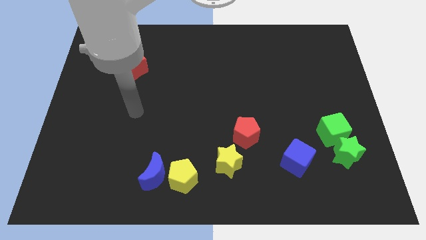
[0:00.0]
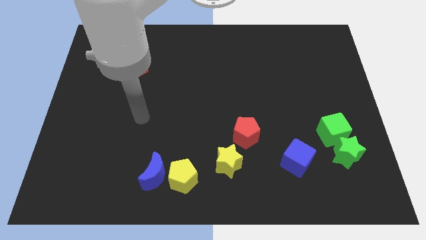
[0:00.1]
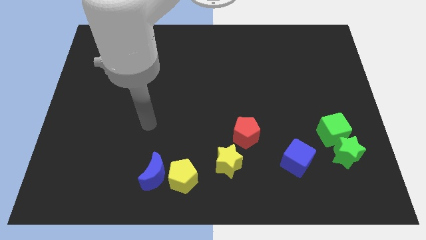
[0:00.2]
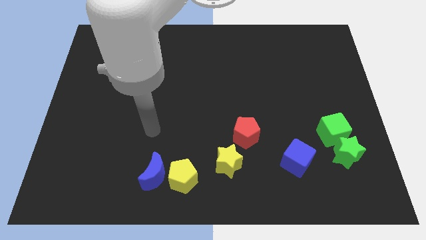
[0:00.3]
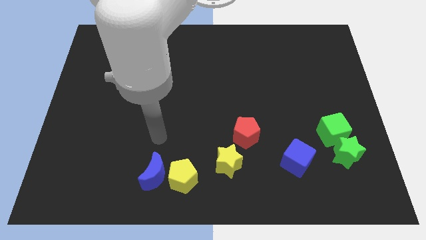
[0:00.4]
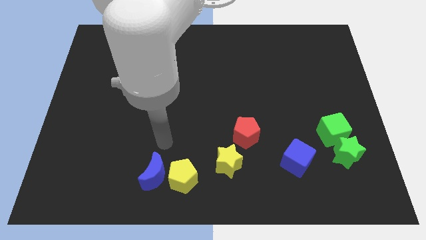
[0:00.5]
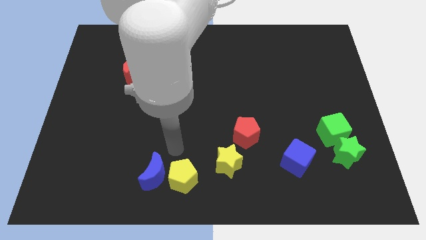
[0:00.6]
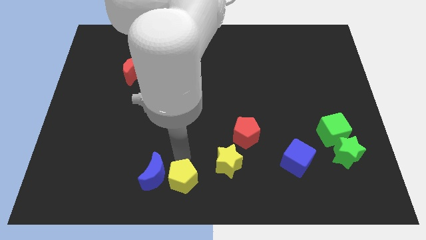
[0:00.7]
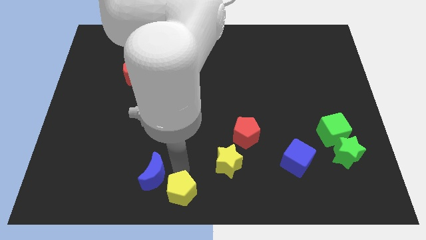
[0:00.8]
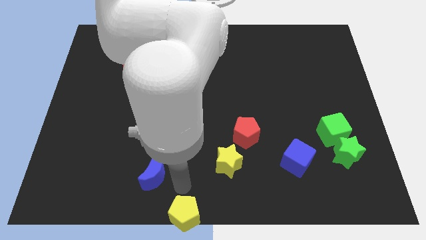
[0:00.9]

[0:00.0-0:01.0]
move the blue moon away from the yellow pentagon

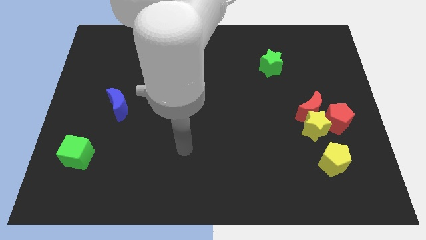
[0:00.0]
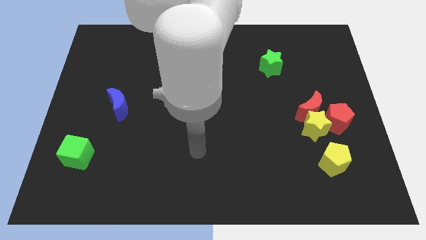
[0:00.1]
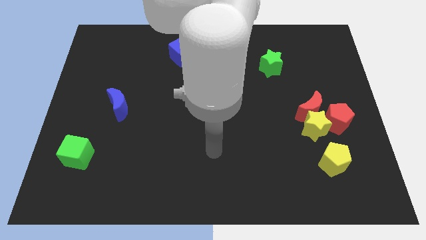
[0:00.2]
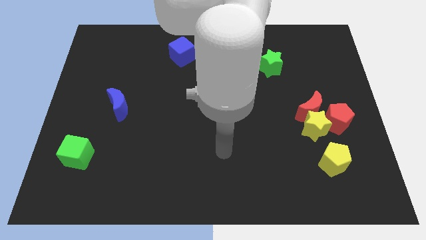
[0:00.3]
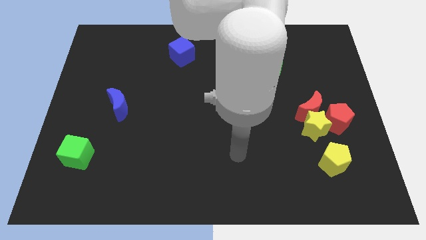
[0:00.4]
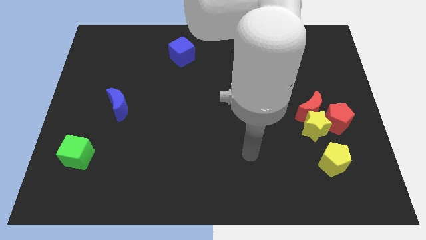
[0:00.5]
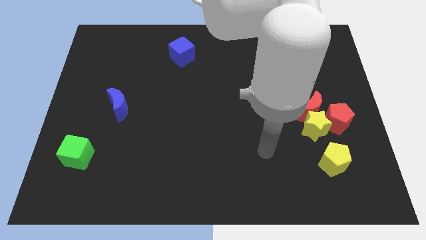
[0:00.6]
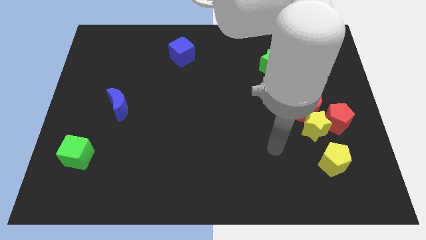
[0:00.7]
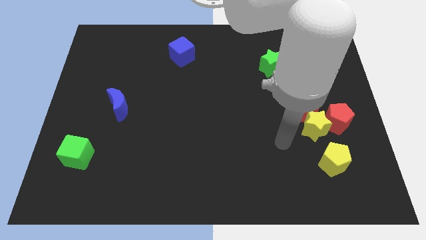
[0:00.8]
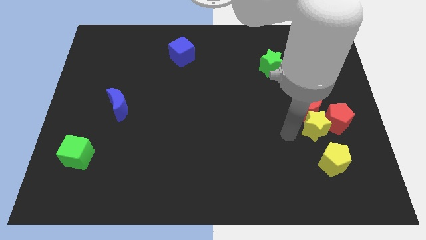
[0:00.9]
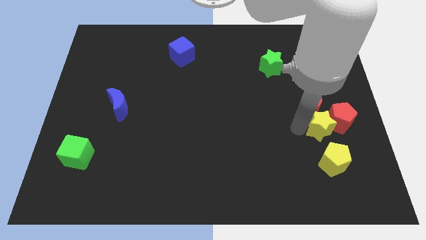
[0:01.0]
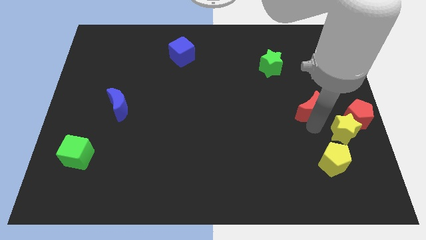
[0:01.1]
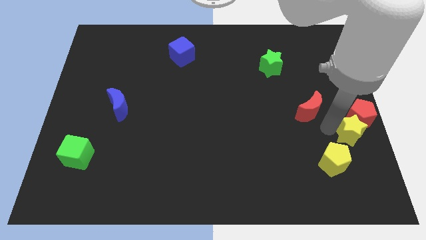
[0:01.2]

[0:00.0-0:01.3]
move the red moon away from the yellow star and red pentagon

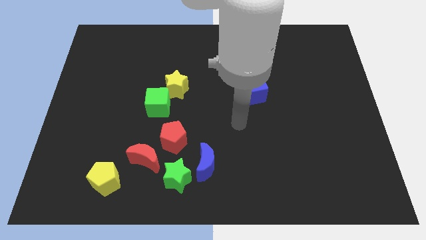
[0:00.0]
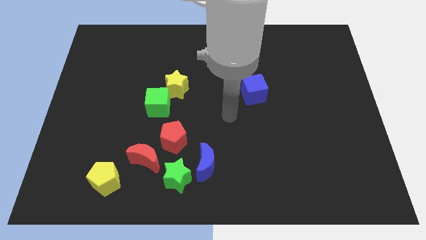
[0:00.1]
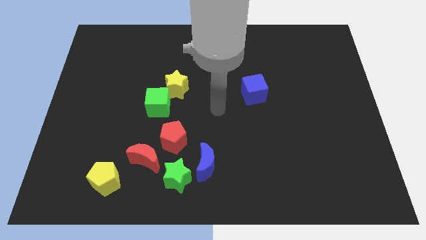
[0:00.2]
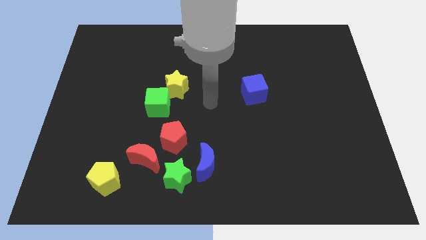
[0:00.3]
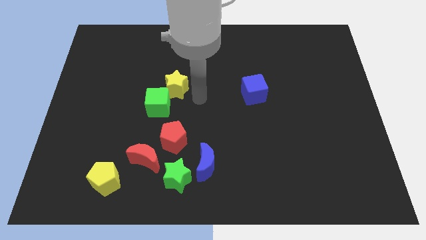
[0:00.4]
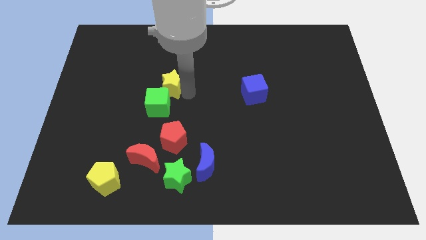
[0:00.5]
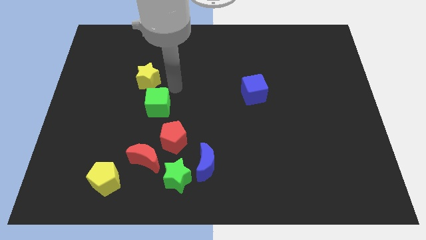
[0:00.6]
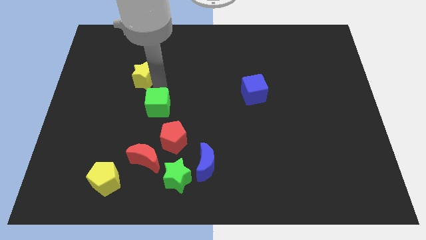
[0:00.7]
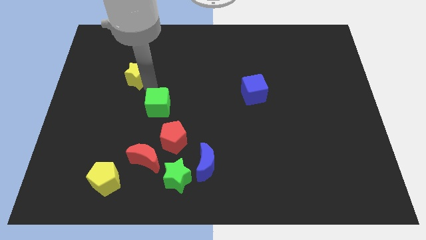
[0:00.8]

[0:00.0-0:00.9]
pull the green cube apart from the yellow star

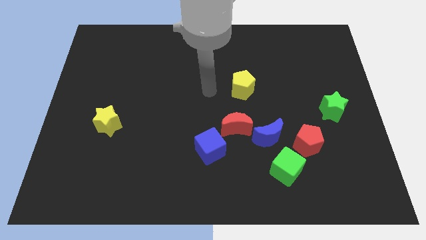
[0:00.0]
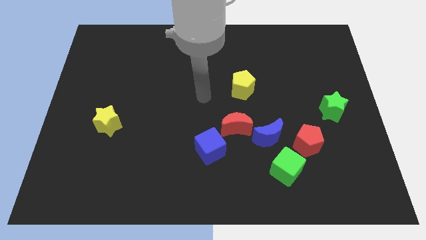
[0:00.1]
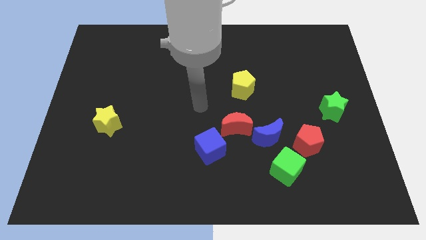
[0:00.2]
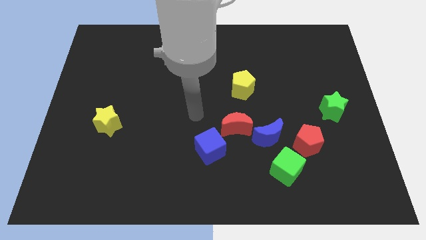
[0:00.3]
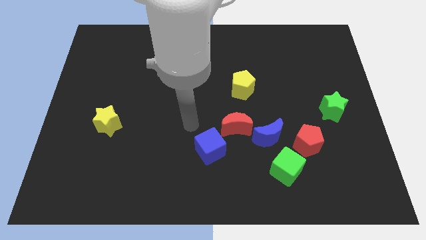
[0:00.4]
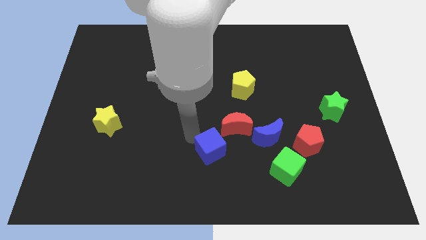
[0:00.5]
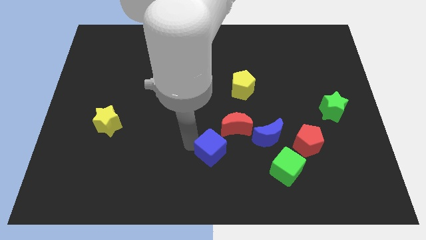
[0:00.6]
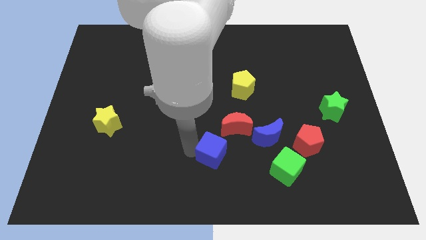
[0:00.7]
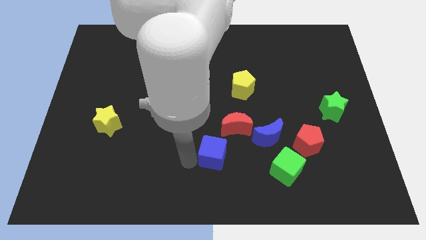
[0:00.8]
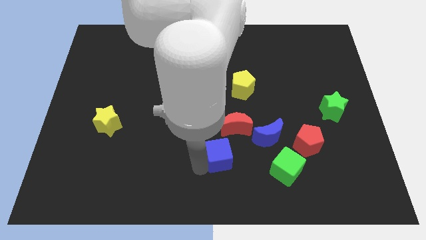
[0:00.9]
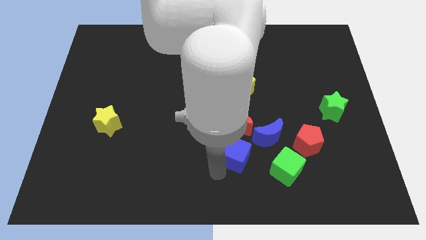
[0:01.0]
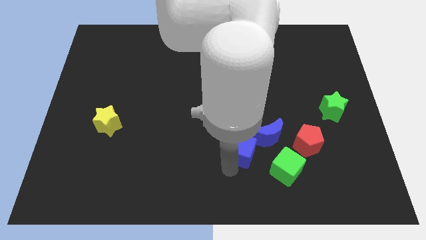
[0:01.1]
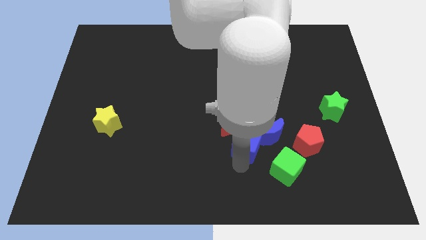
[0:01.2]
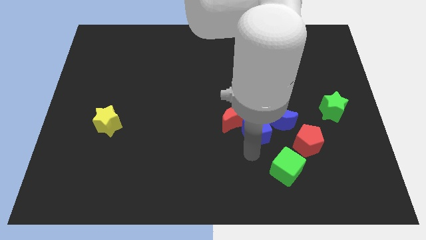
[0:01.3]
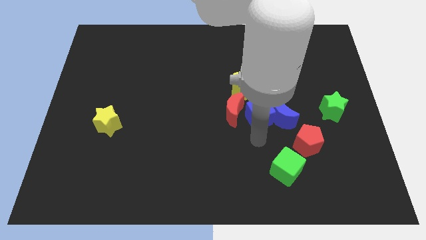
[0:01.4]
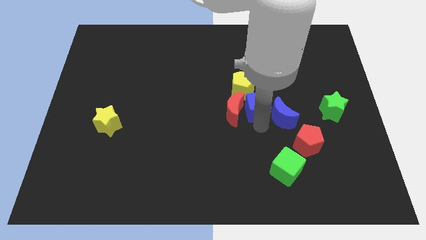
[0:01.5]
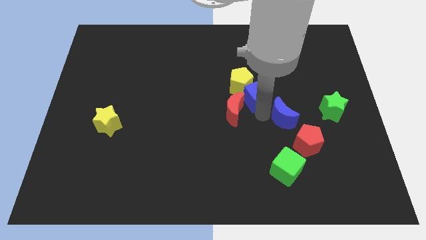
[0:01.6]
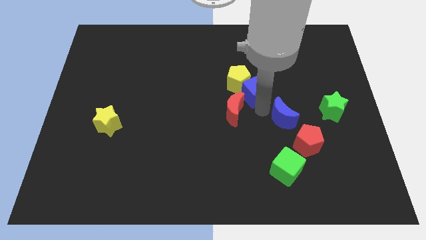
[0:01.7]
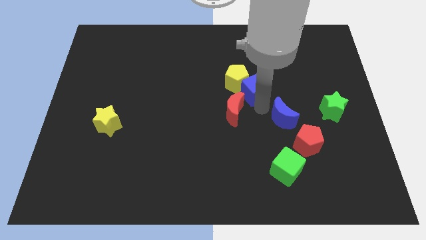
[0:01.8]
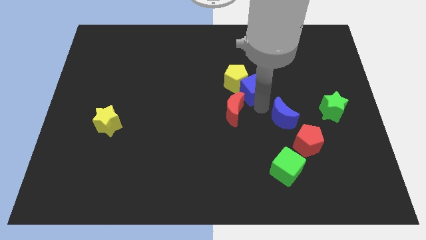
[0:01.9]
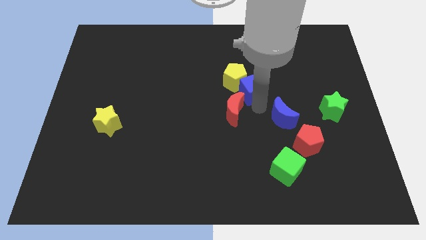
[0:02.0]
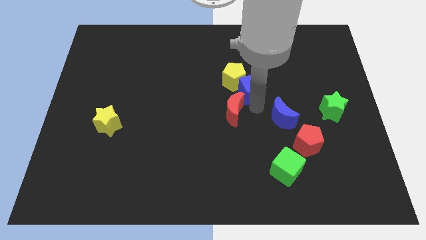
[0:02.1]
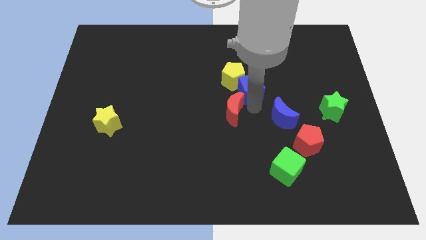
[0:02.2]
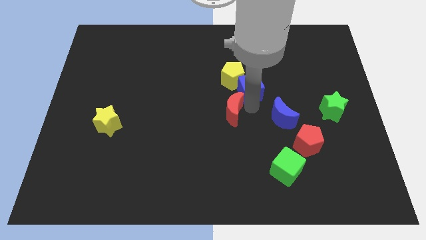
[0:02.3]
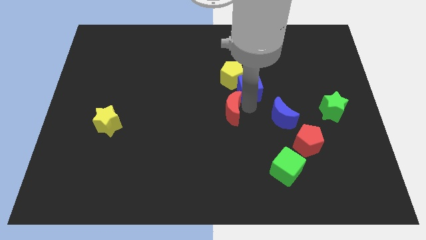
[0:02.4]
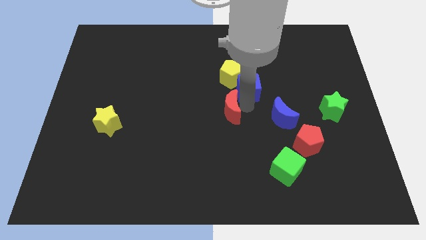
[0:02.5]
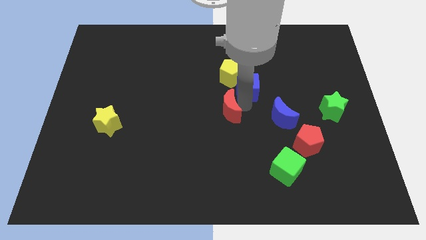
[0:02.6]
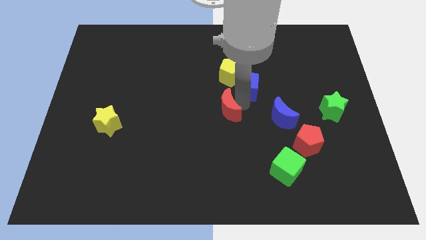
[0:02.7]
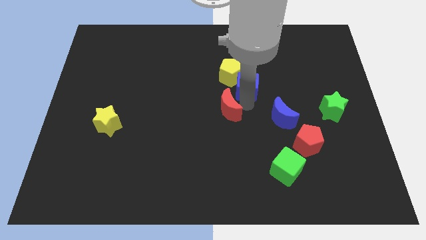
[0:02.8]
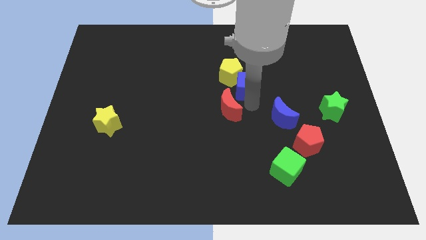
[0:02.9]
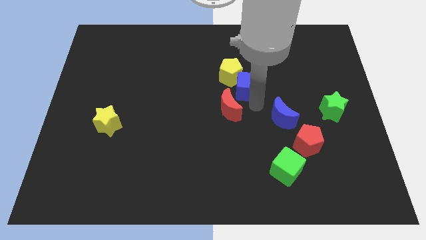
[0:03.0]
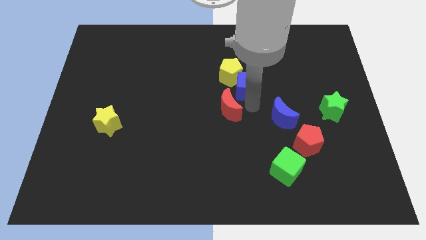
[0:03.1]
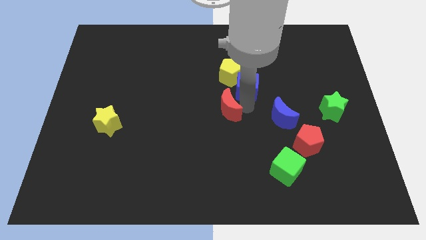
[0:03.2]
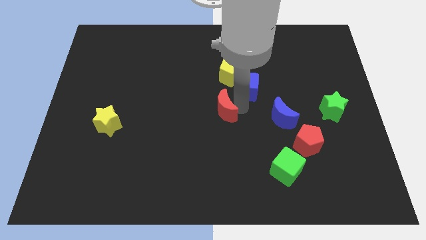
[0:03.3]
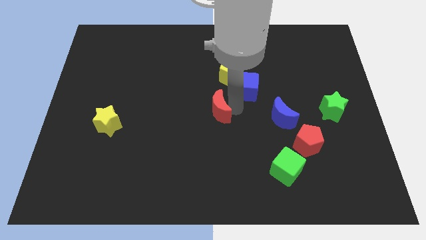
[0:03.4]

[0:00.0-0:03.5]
move the red moon away from the blue moon and blue cube

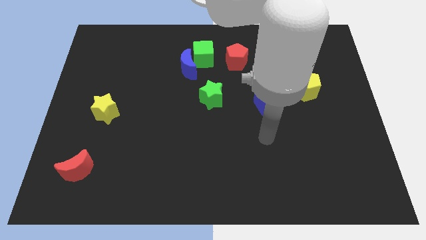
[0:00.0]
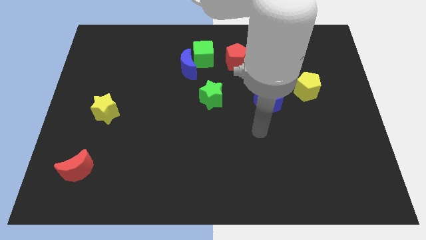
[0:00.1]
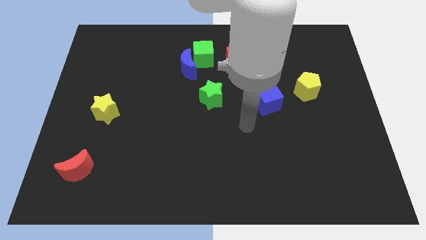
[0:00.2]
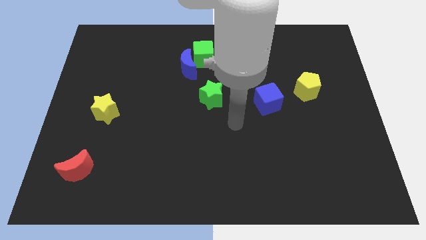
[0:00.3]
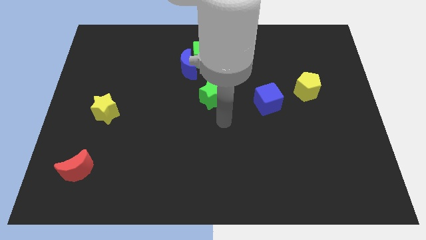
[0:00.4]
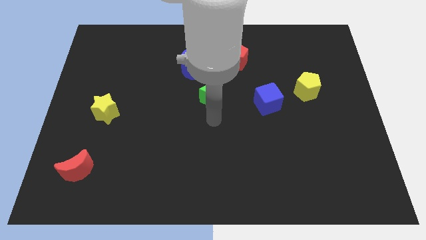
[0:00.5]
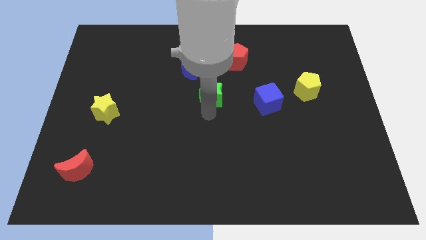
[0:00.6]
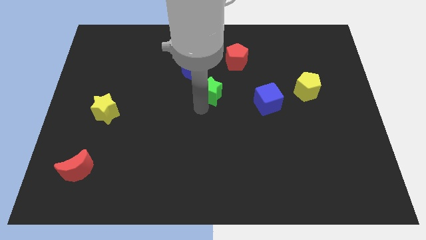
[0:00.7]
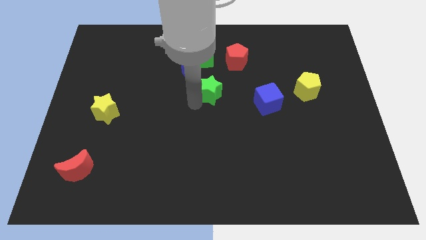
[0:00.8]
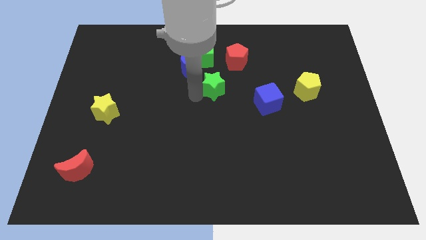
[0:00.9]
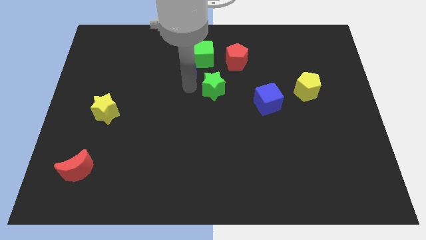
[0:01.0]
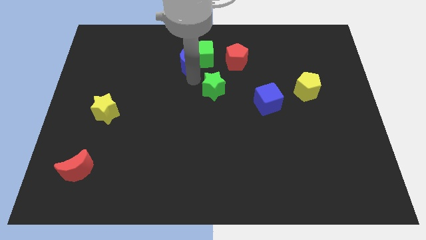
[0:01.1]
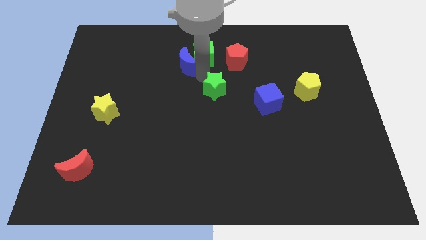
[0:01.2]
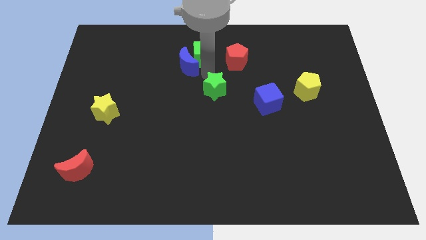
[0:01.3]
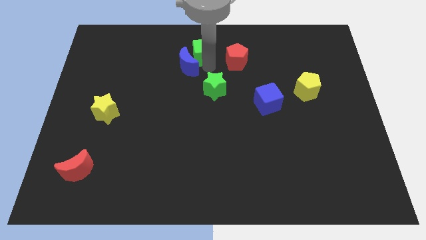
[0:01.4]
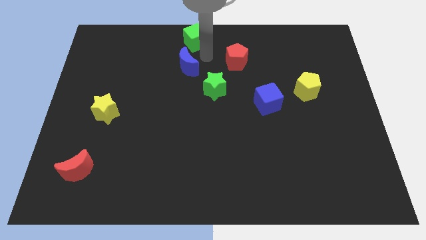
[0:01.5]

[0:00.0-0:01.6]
move the blue moon away from the green cube

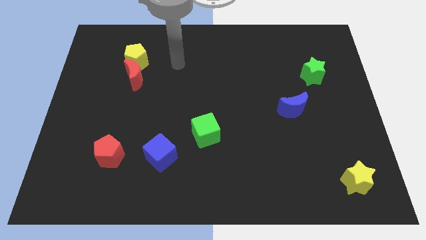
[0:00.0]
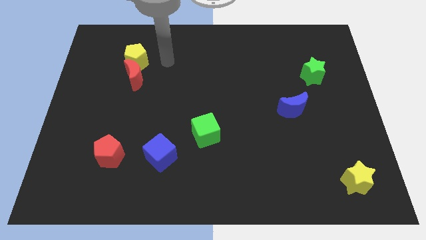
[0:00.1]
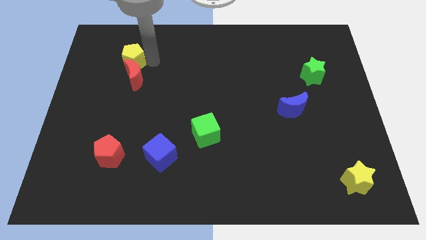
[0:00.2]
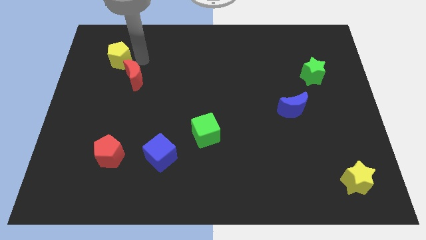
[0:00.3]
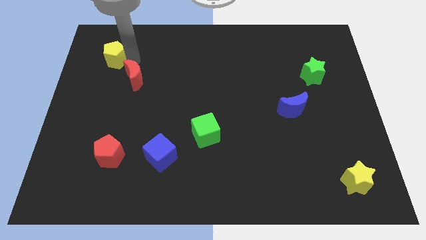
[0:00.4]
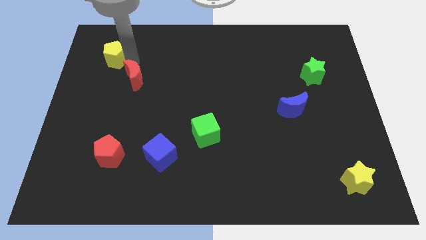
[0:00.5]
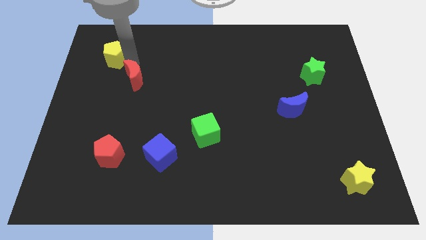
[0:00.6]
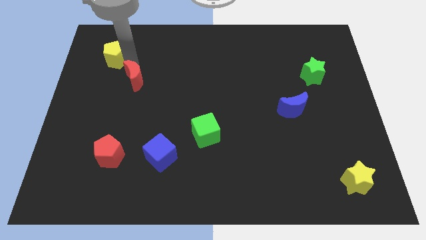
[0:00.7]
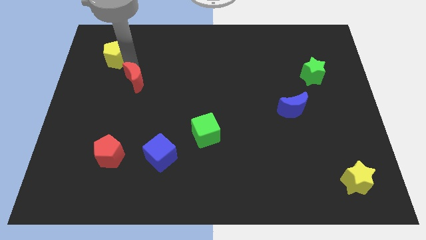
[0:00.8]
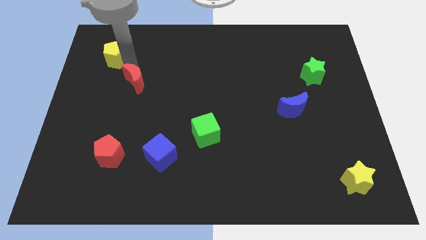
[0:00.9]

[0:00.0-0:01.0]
move the red moon away from the yellow pentagon
